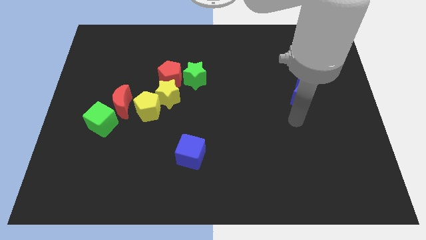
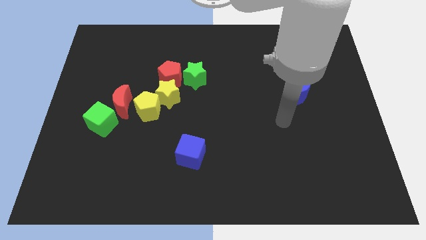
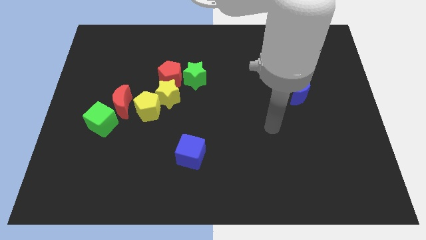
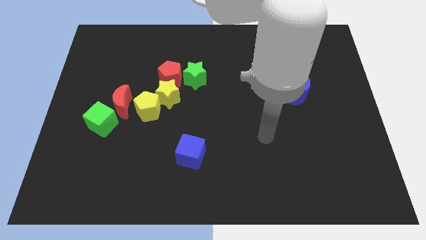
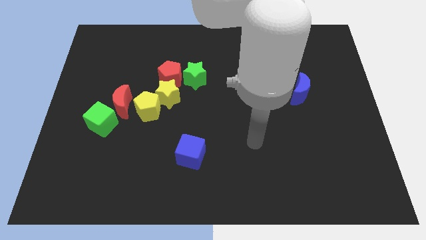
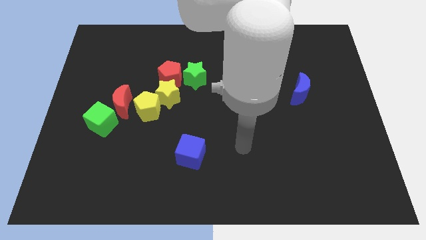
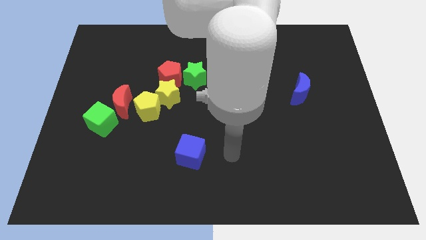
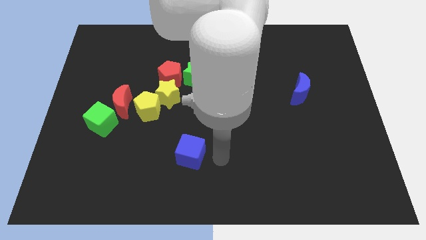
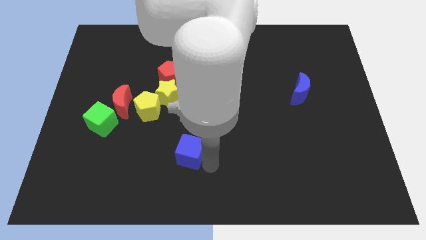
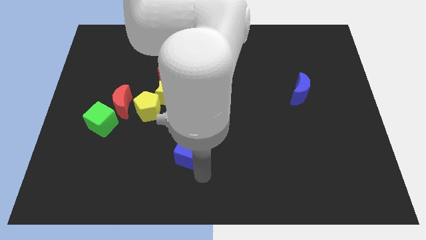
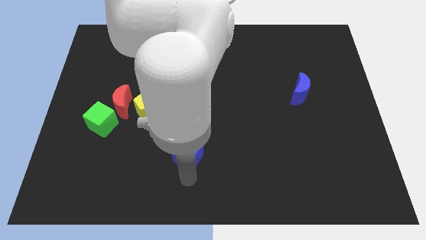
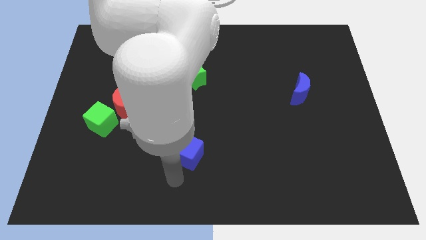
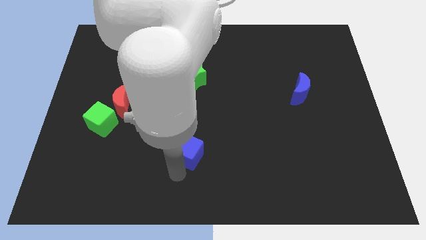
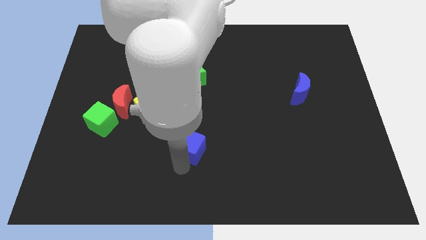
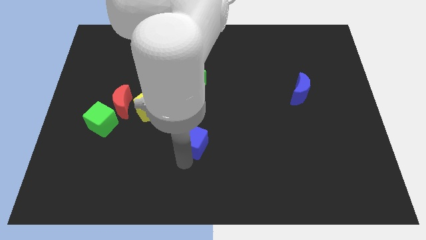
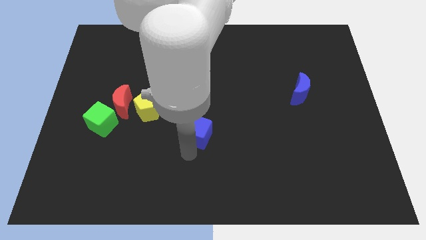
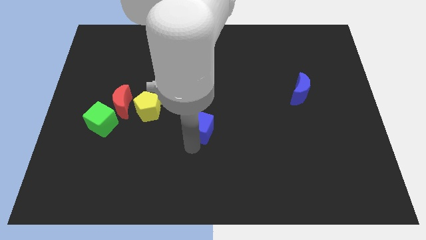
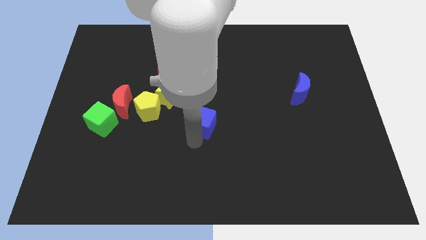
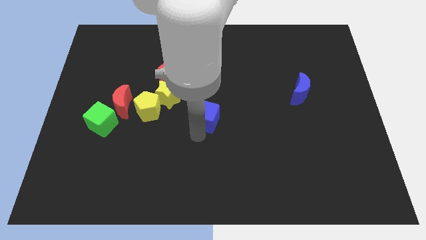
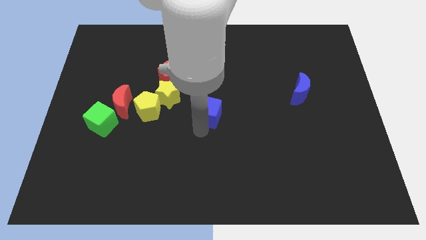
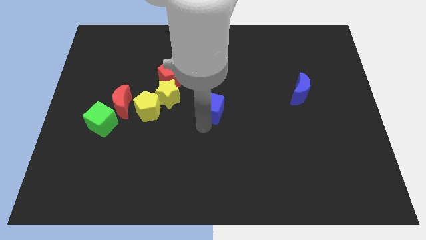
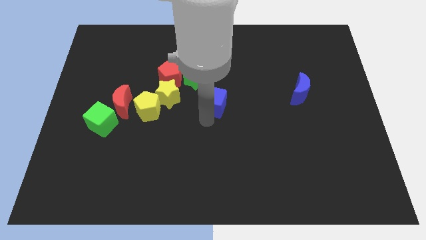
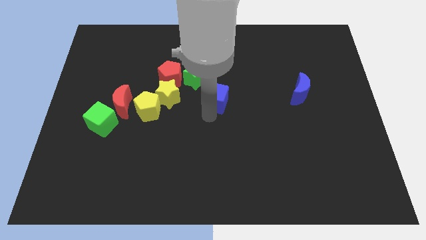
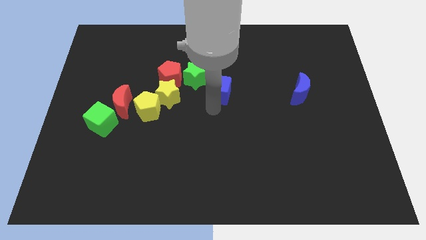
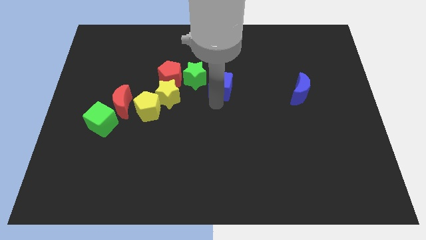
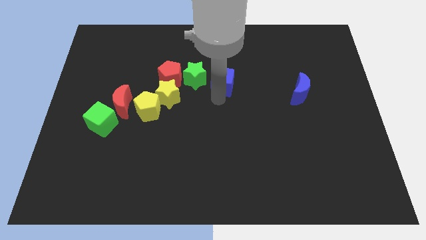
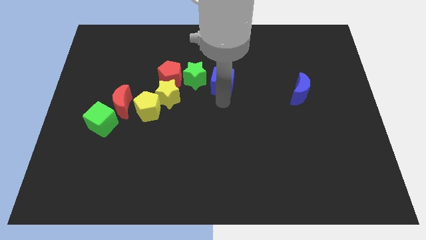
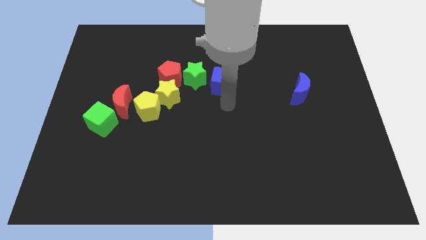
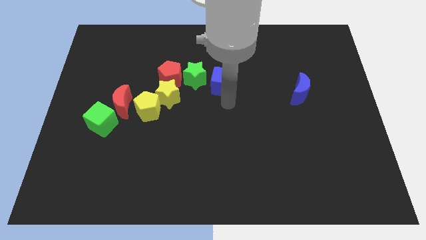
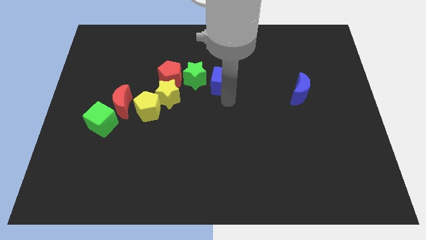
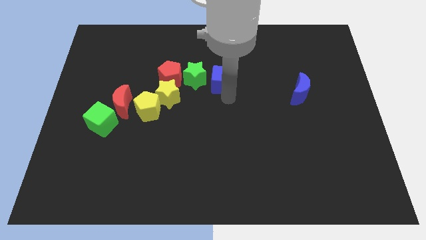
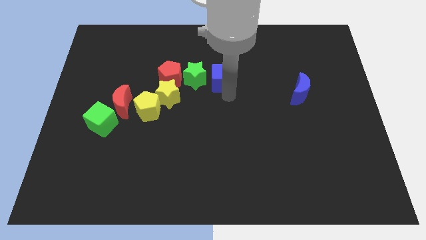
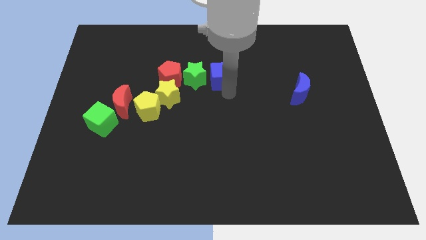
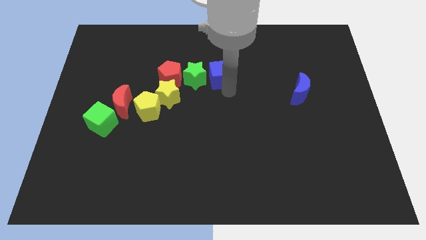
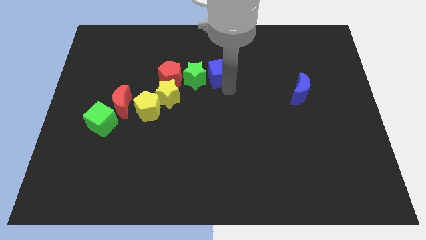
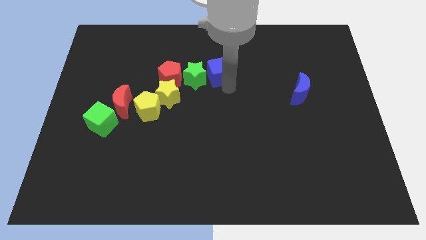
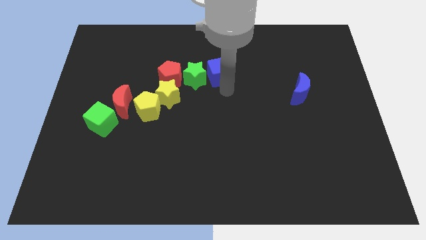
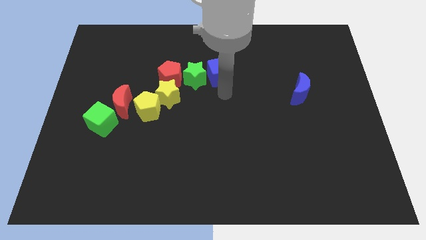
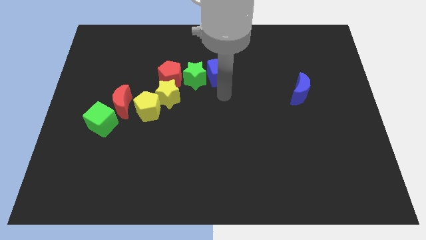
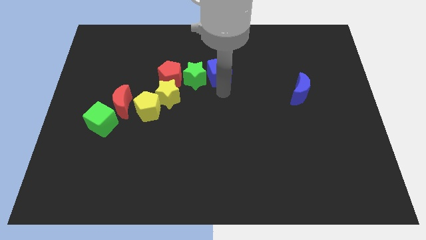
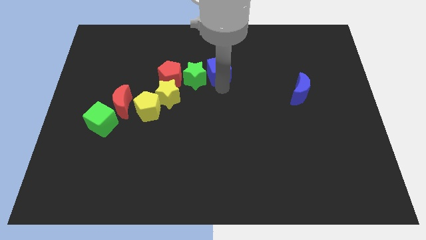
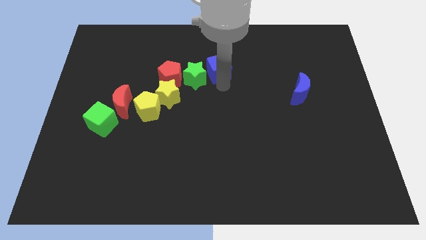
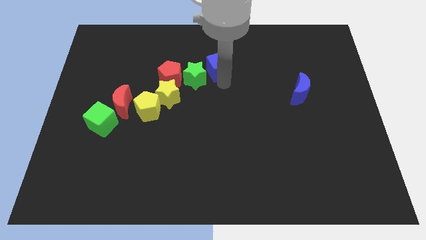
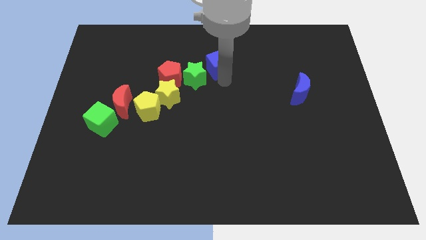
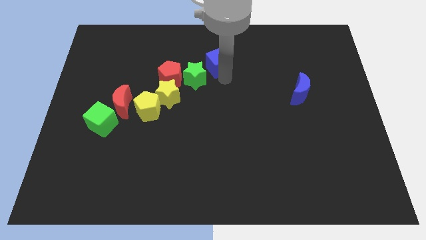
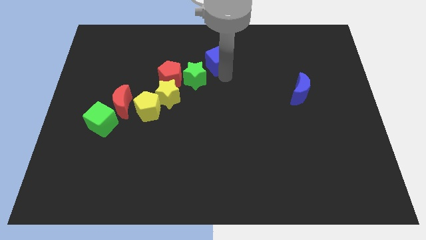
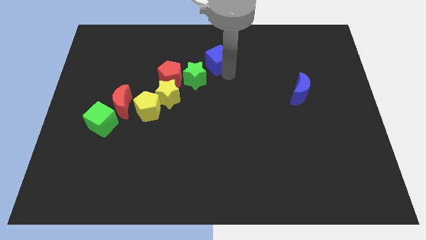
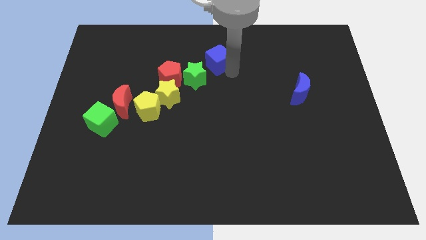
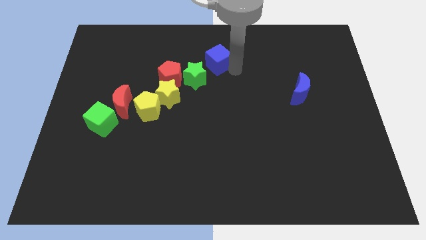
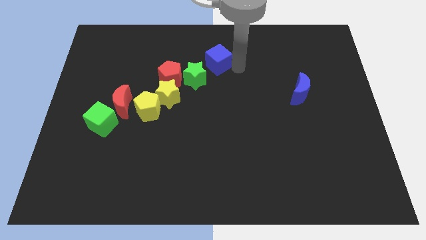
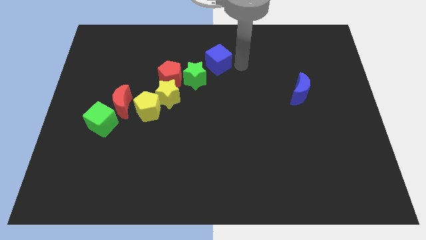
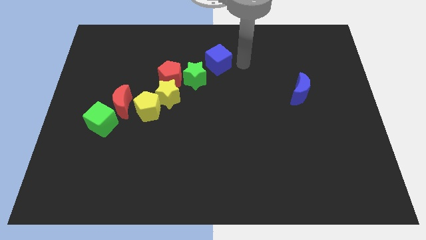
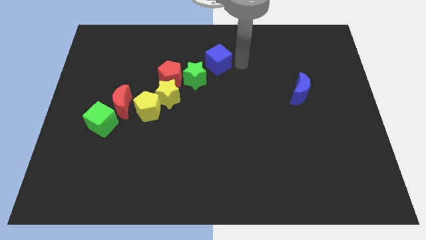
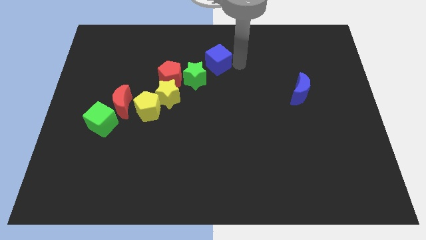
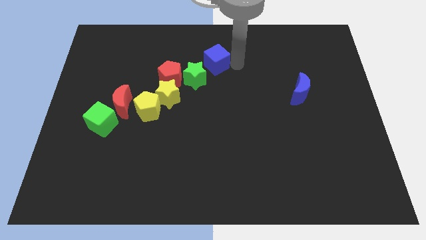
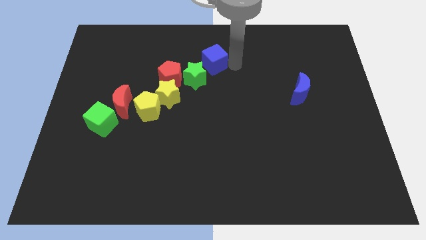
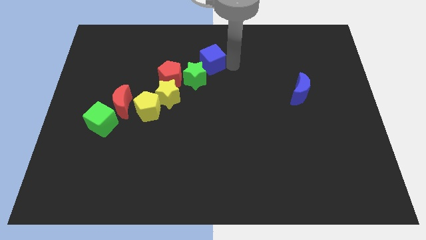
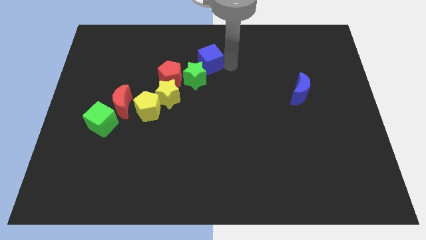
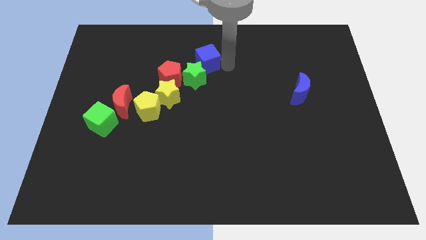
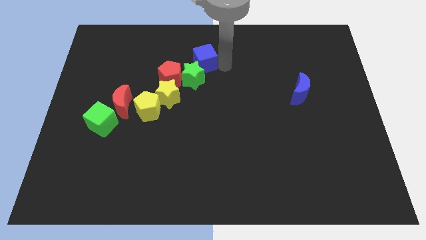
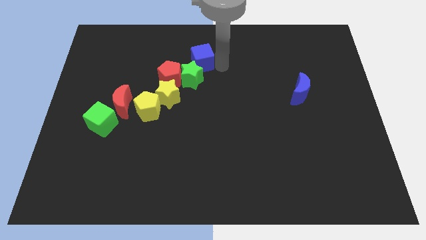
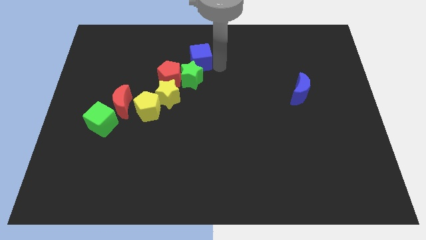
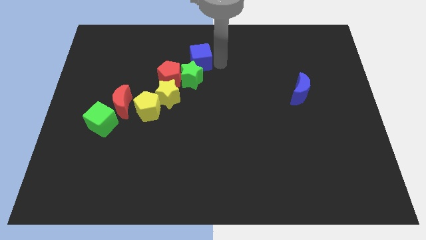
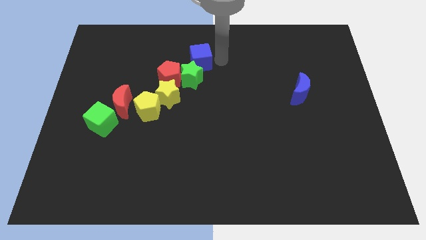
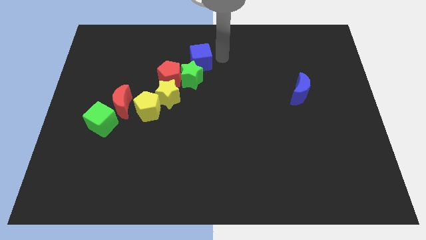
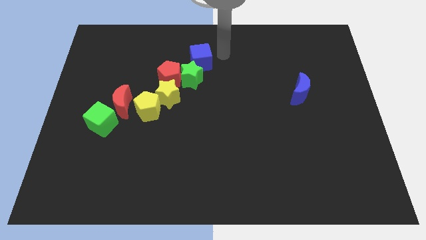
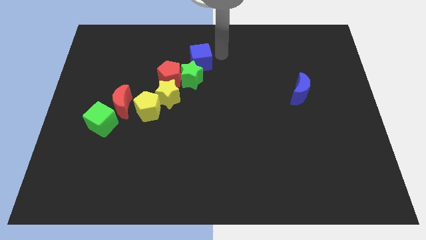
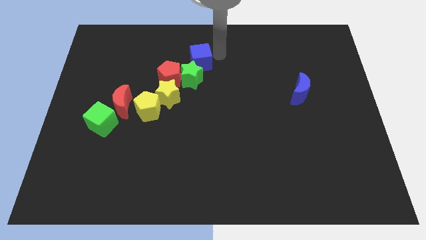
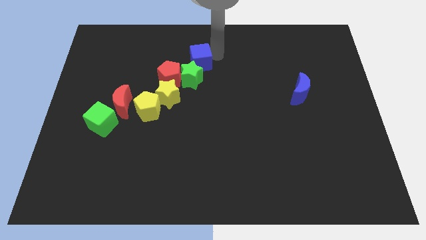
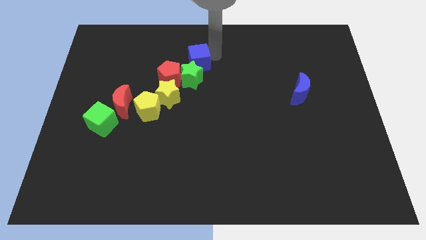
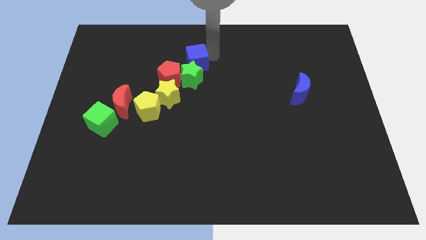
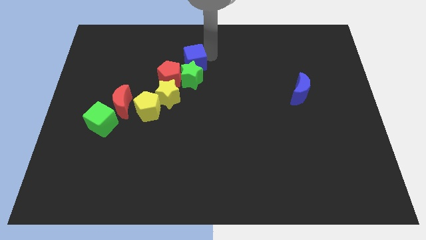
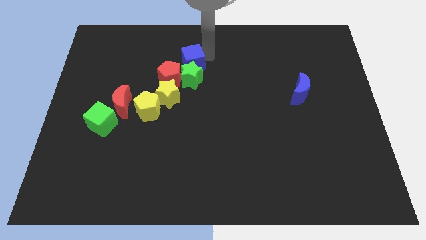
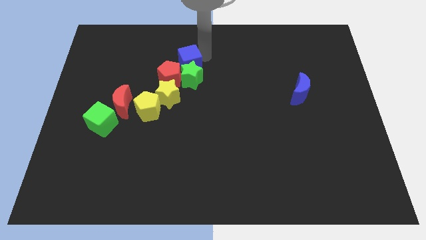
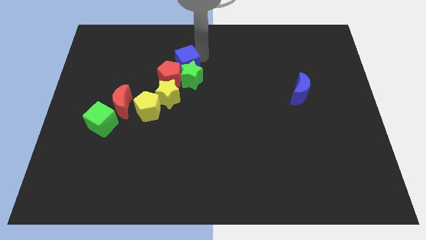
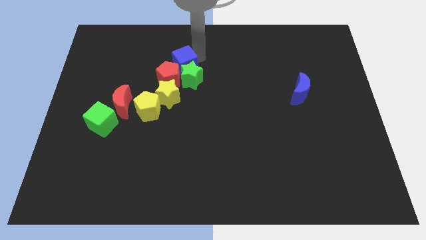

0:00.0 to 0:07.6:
push the blue cube towards the red pentagon
